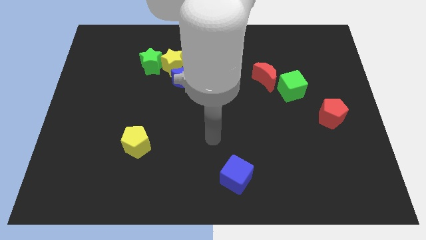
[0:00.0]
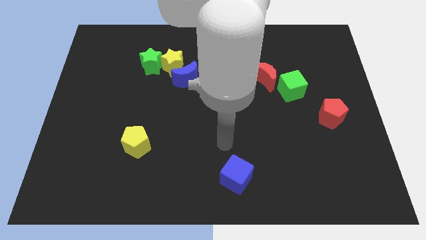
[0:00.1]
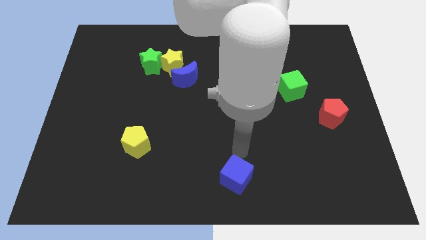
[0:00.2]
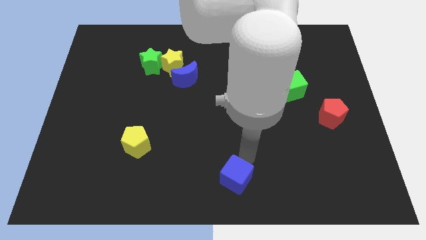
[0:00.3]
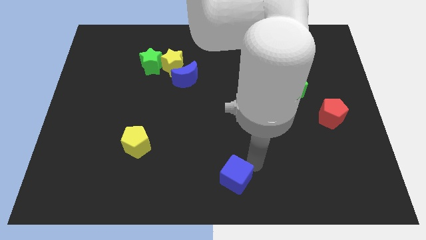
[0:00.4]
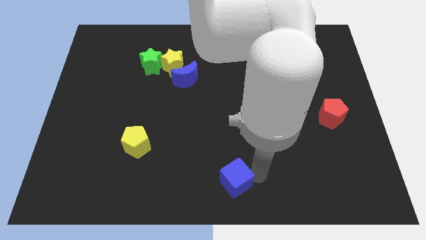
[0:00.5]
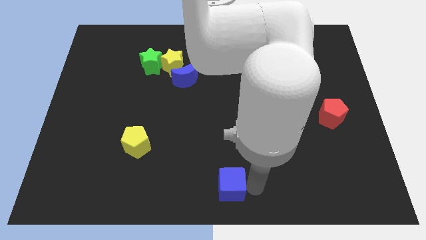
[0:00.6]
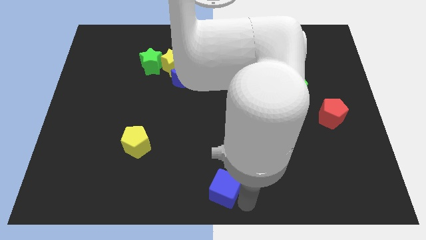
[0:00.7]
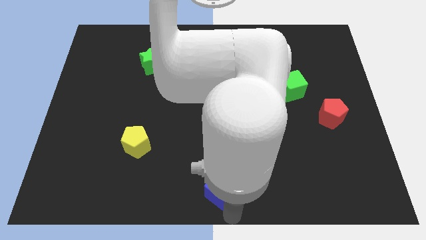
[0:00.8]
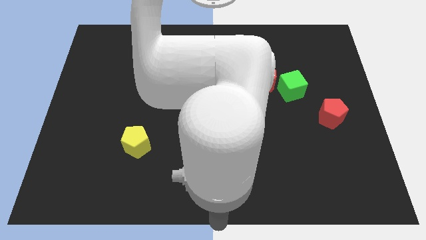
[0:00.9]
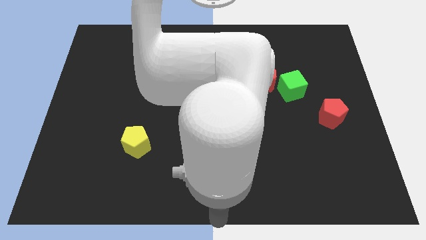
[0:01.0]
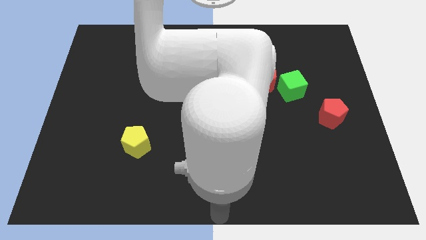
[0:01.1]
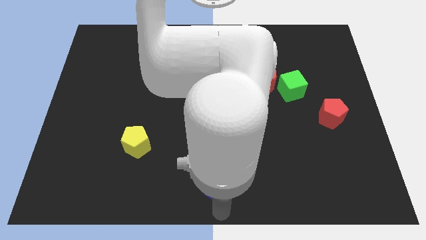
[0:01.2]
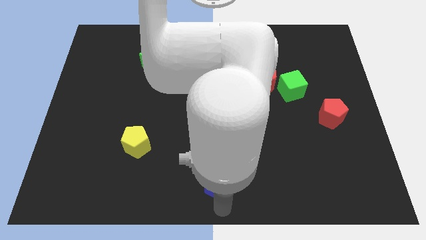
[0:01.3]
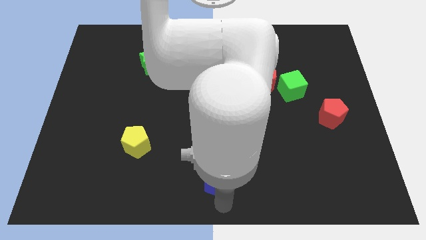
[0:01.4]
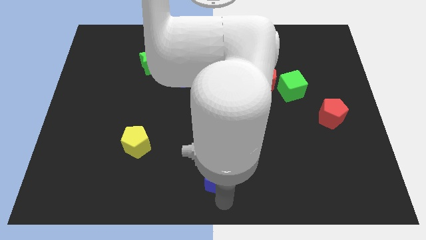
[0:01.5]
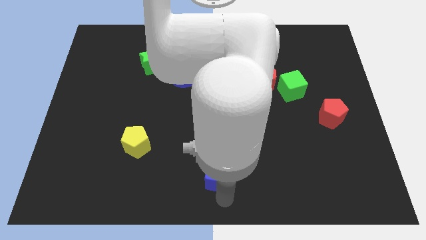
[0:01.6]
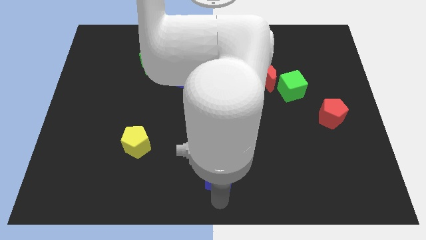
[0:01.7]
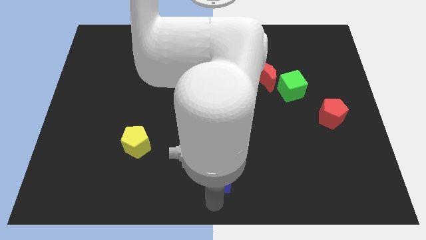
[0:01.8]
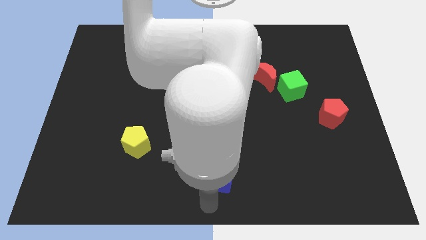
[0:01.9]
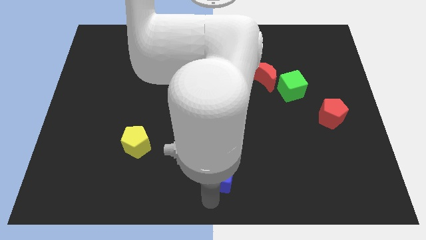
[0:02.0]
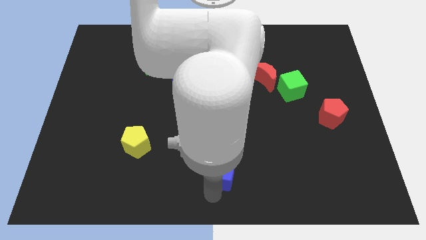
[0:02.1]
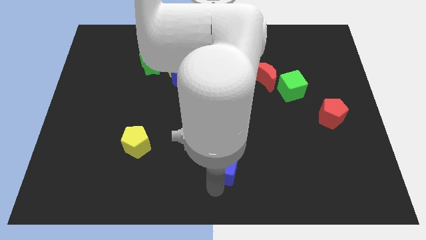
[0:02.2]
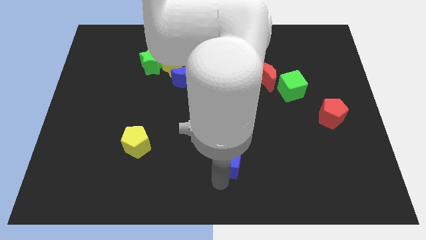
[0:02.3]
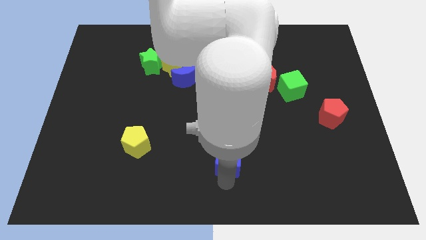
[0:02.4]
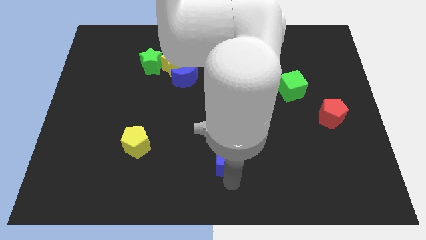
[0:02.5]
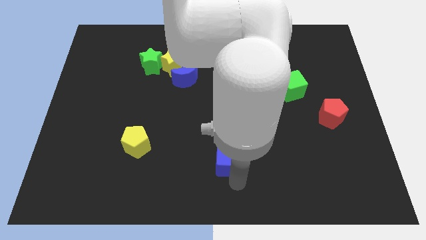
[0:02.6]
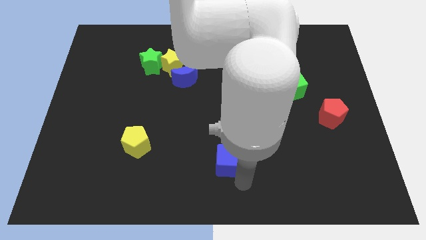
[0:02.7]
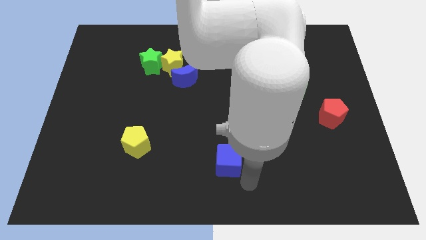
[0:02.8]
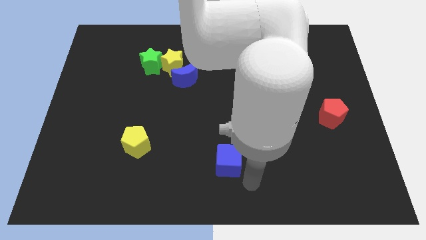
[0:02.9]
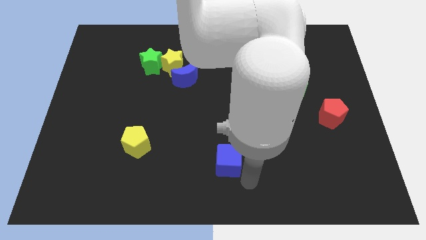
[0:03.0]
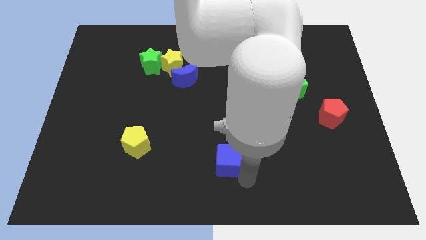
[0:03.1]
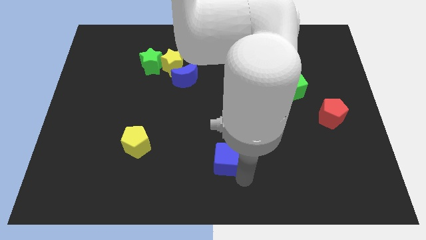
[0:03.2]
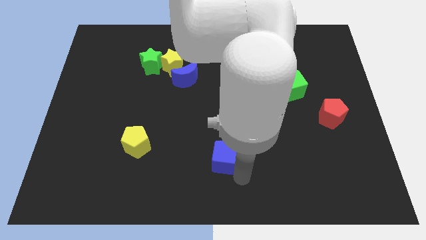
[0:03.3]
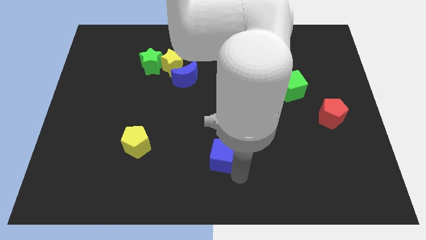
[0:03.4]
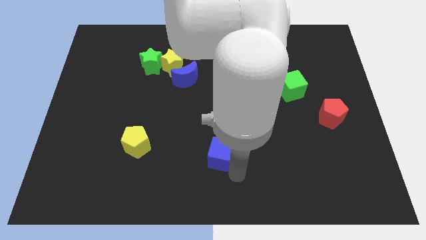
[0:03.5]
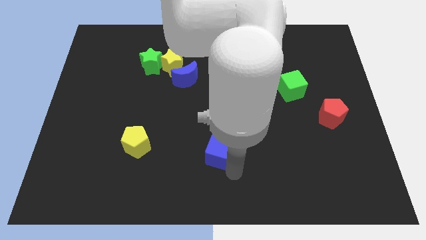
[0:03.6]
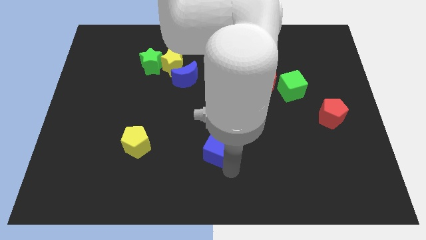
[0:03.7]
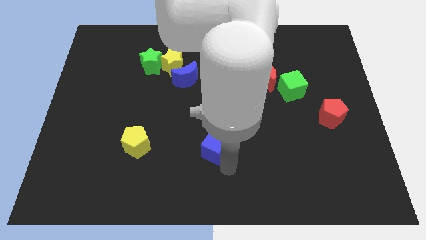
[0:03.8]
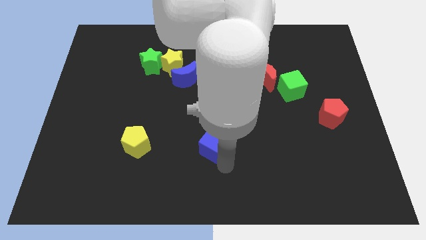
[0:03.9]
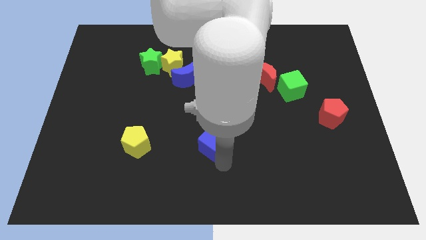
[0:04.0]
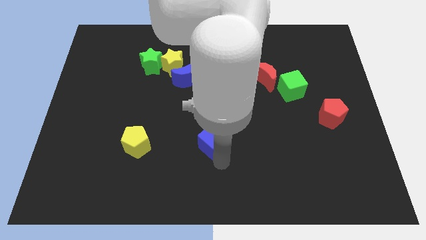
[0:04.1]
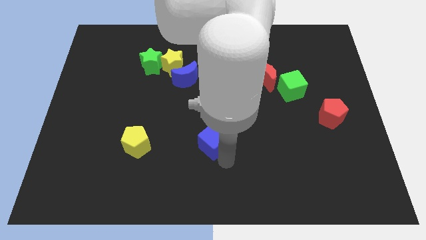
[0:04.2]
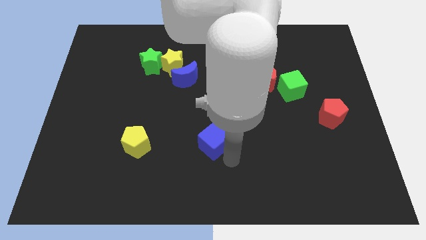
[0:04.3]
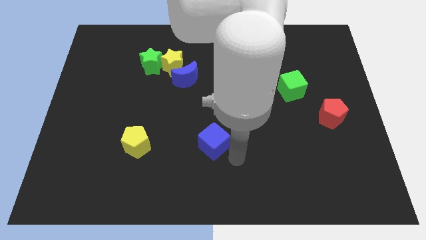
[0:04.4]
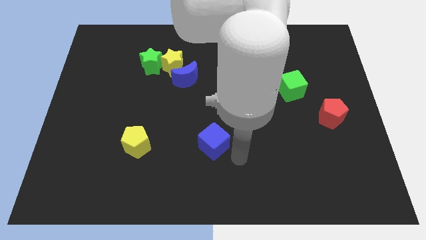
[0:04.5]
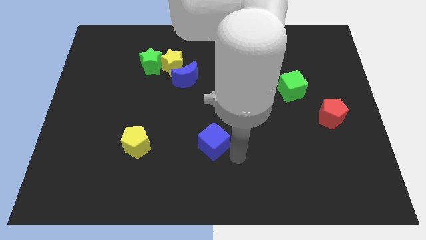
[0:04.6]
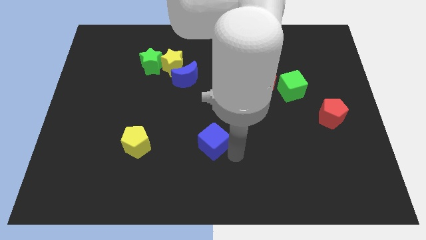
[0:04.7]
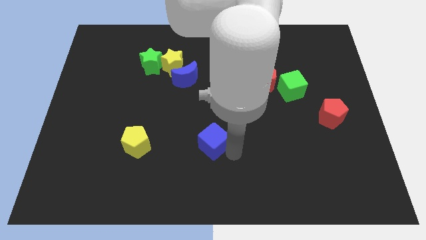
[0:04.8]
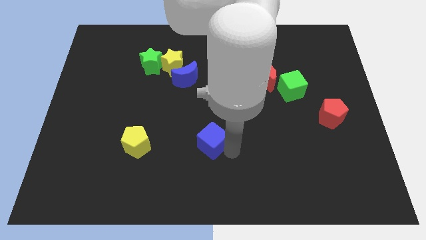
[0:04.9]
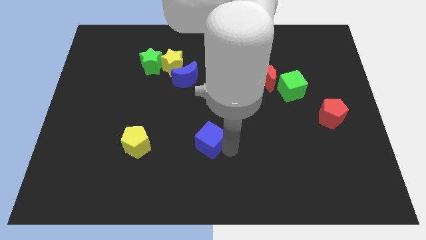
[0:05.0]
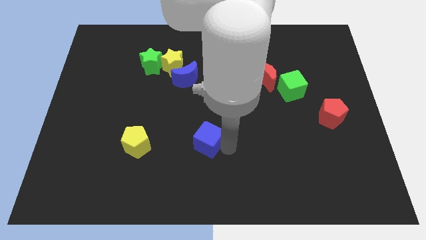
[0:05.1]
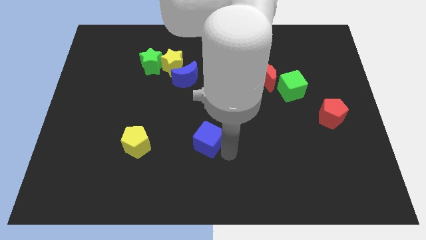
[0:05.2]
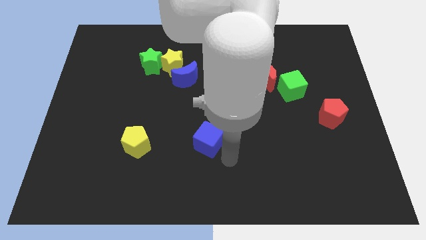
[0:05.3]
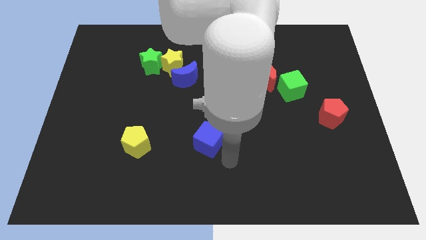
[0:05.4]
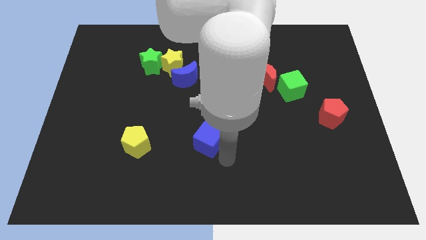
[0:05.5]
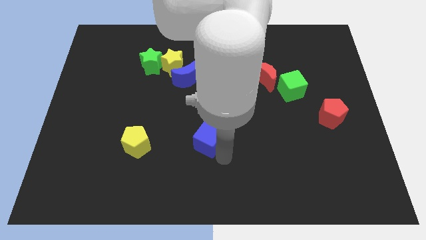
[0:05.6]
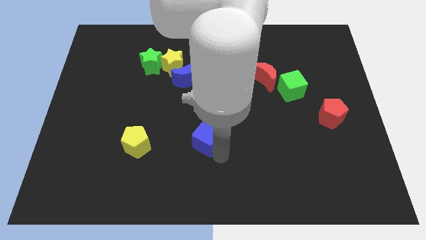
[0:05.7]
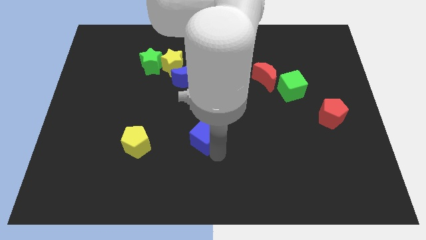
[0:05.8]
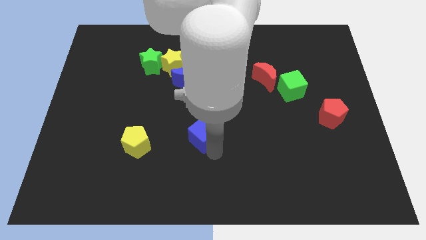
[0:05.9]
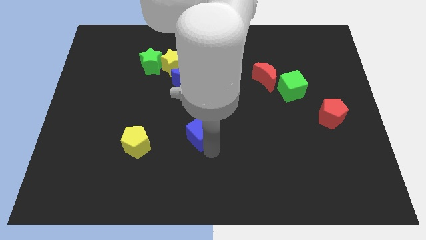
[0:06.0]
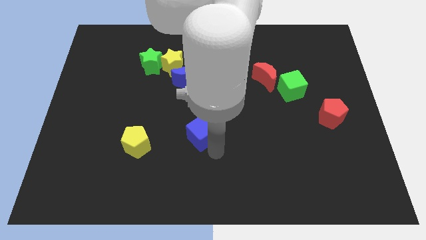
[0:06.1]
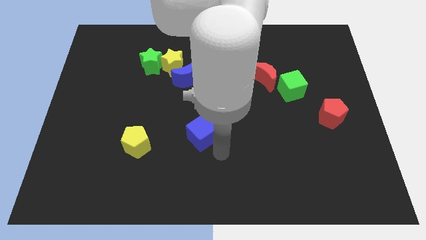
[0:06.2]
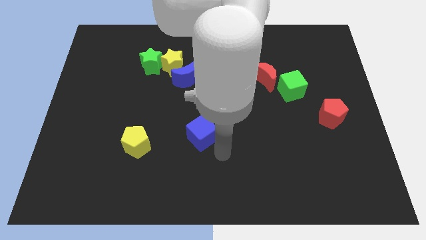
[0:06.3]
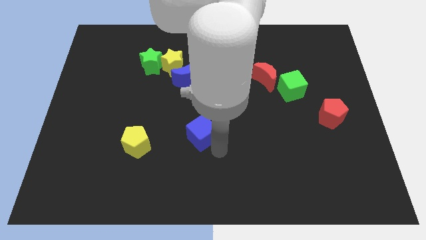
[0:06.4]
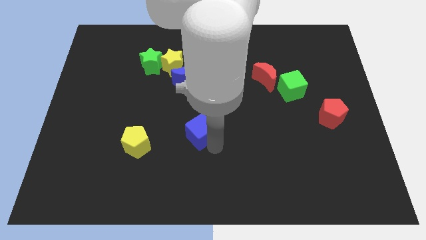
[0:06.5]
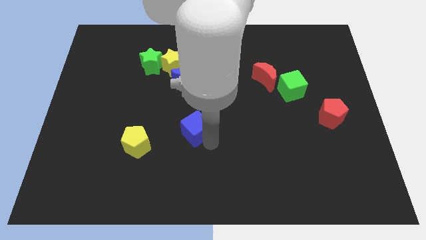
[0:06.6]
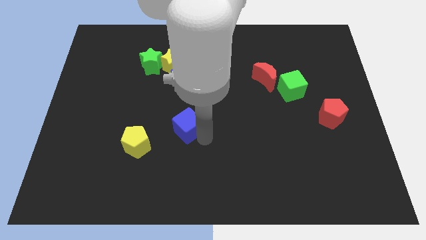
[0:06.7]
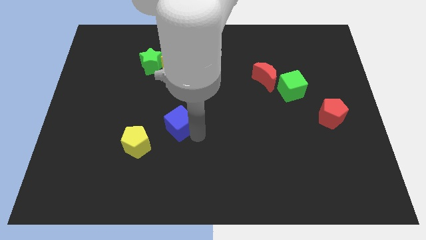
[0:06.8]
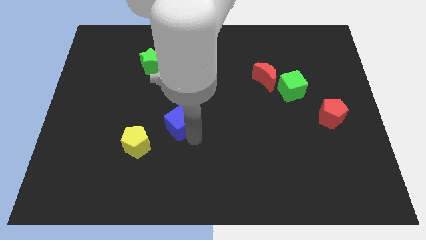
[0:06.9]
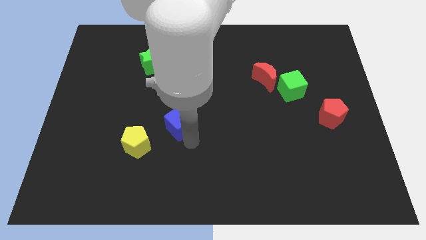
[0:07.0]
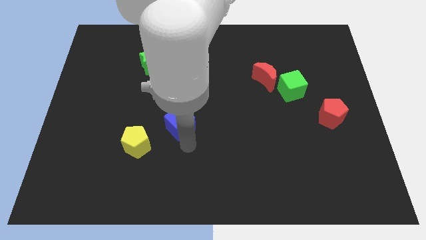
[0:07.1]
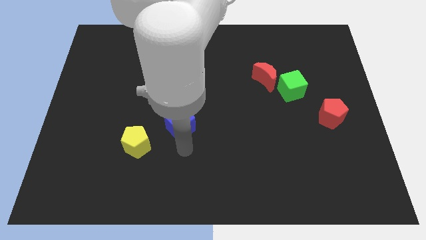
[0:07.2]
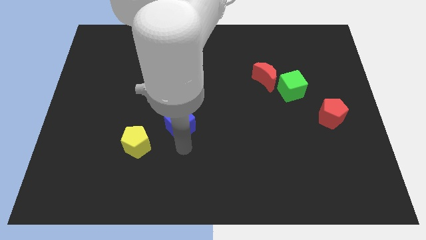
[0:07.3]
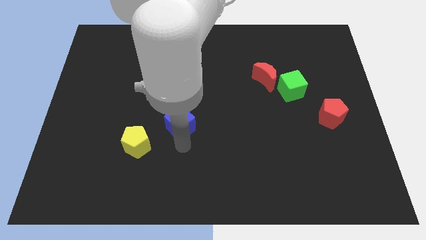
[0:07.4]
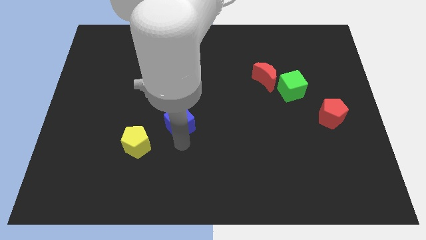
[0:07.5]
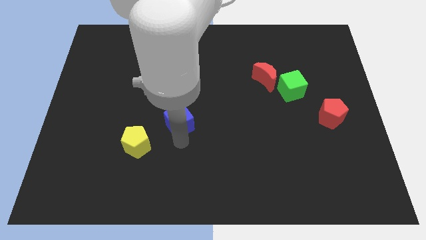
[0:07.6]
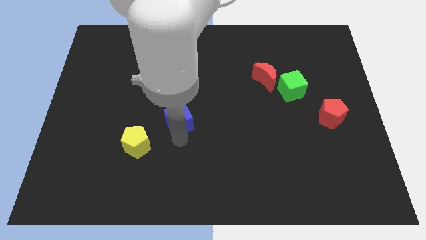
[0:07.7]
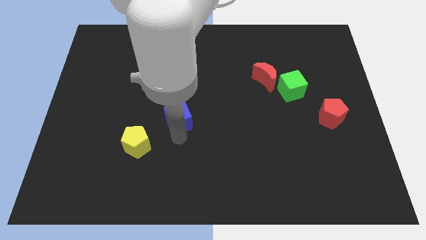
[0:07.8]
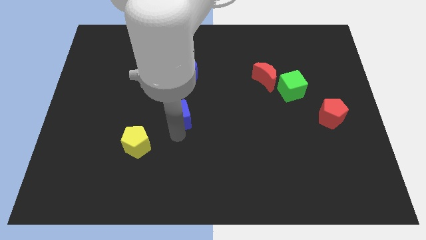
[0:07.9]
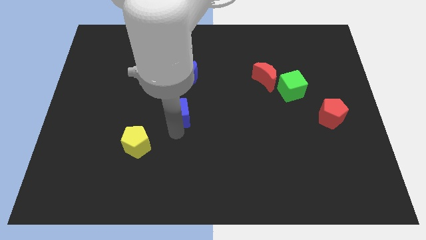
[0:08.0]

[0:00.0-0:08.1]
push the blue cube to the bottom of the yellow star

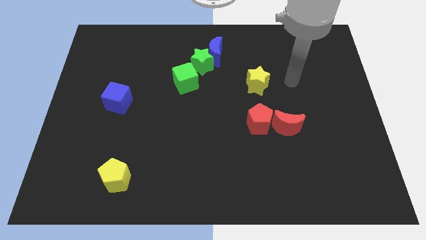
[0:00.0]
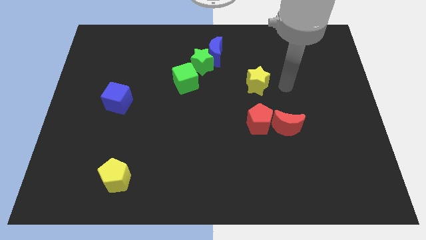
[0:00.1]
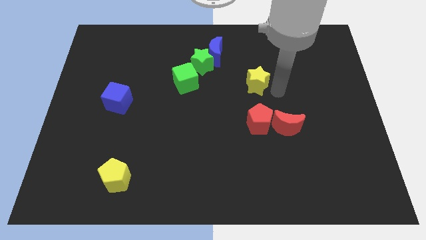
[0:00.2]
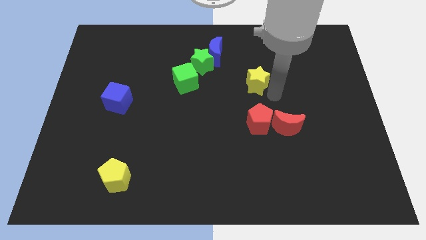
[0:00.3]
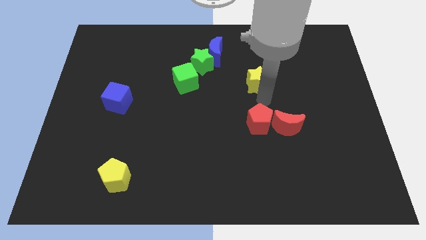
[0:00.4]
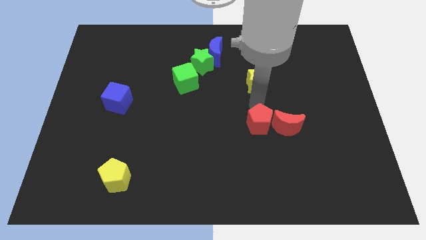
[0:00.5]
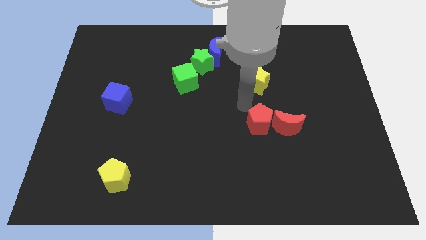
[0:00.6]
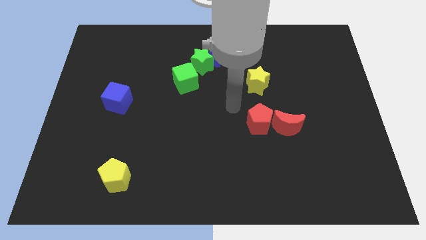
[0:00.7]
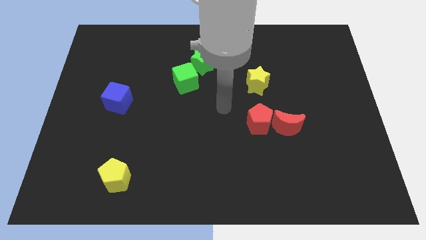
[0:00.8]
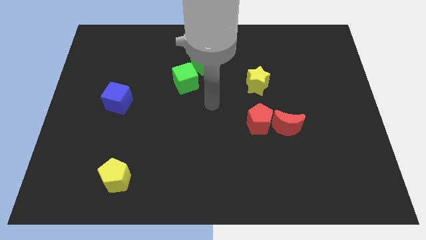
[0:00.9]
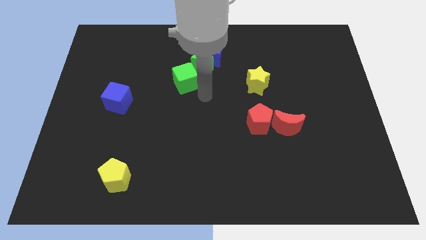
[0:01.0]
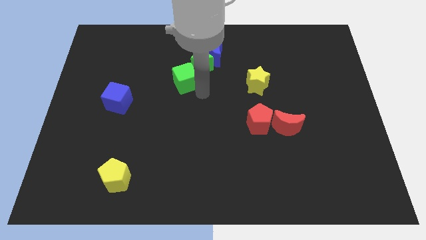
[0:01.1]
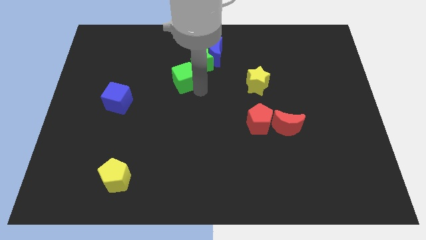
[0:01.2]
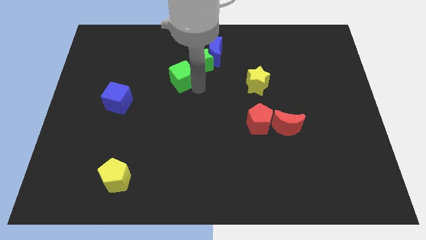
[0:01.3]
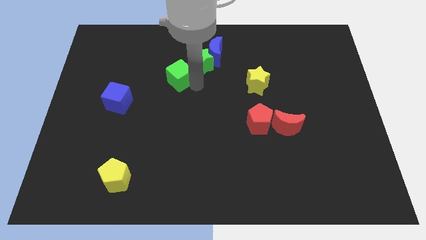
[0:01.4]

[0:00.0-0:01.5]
put the green cube to the left of the green star
